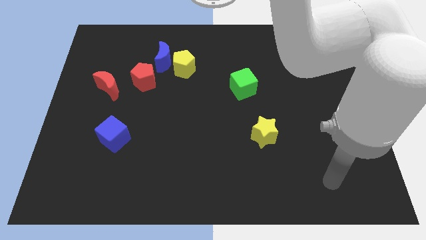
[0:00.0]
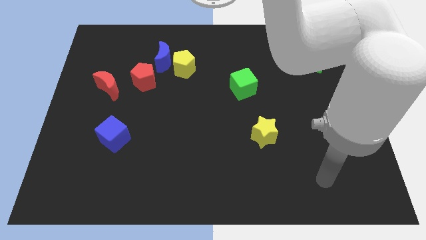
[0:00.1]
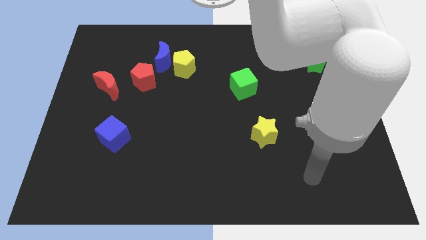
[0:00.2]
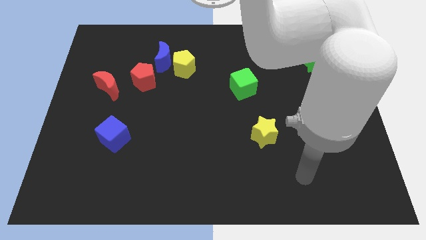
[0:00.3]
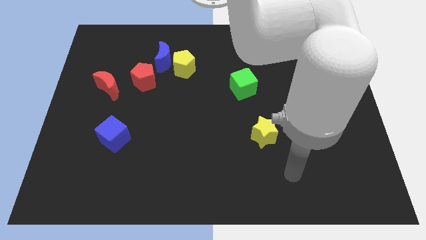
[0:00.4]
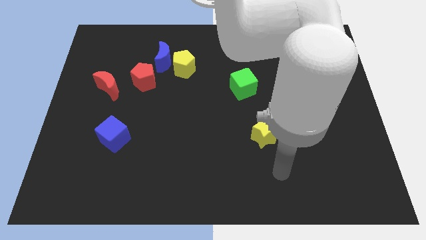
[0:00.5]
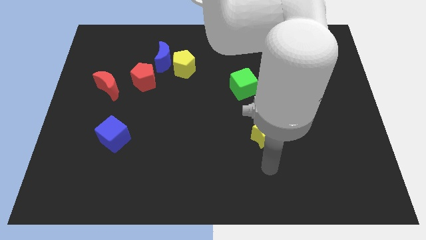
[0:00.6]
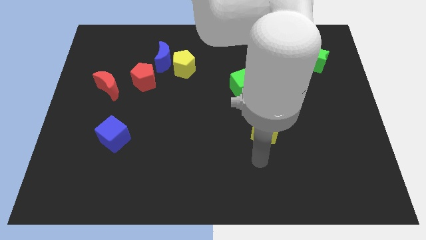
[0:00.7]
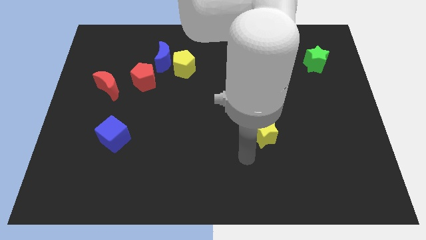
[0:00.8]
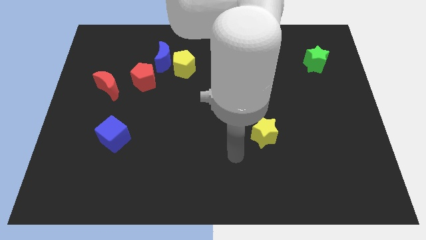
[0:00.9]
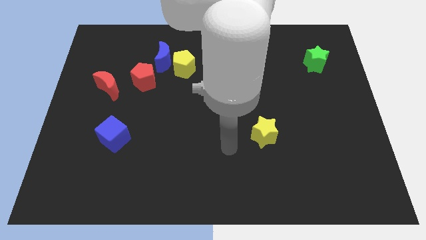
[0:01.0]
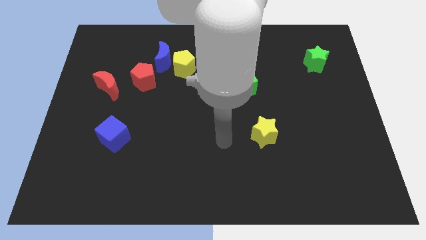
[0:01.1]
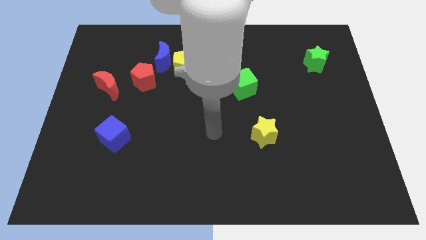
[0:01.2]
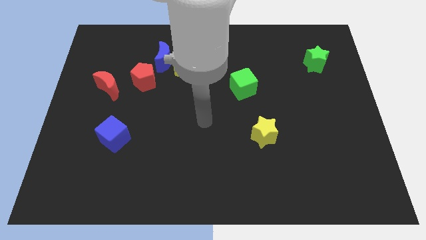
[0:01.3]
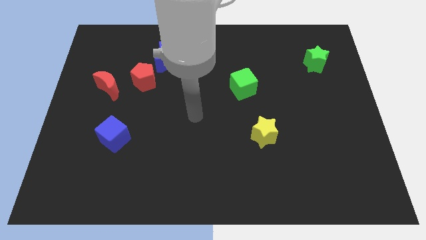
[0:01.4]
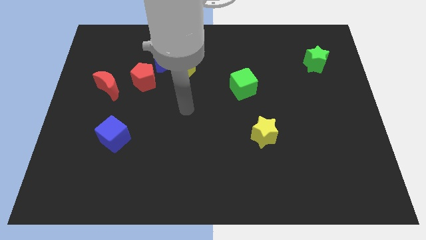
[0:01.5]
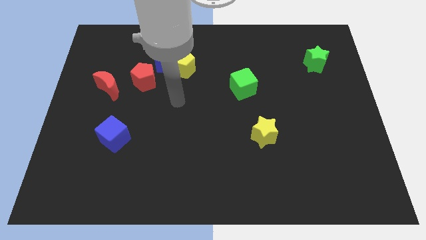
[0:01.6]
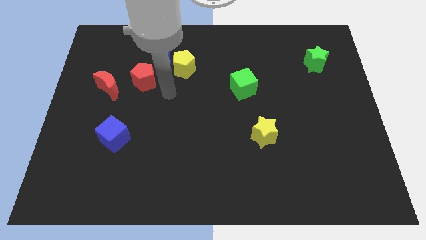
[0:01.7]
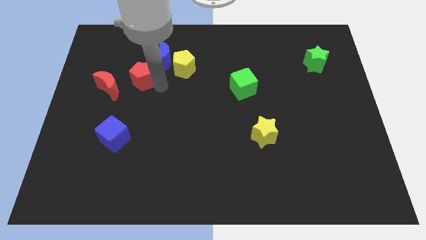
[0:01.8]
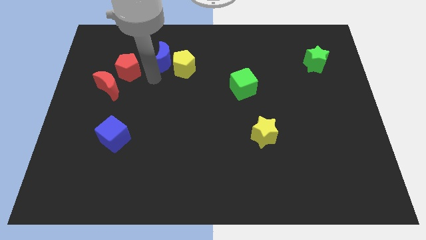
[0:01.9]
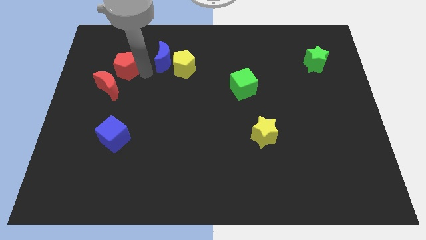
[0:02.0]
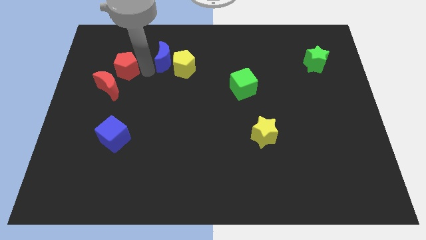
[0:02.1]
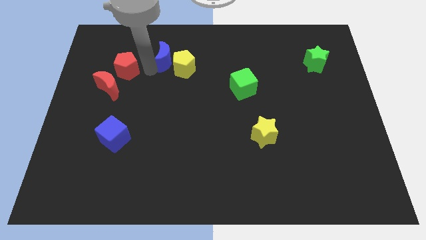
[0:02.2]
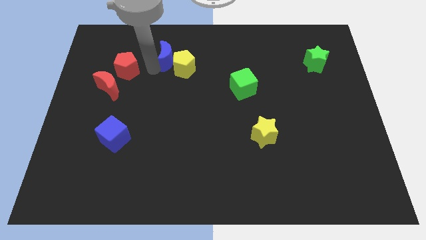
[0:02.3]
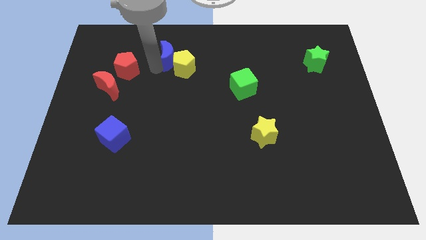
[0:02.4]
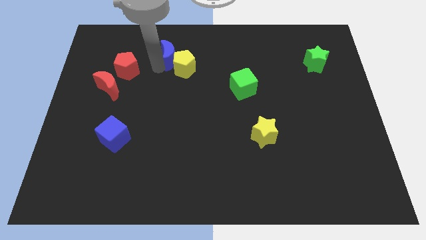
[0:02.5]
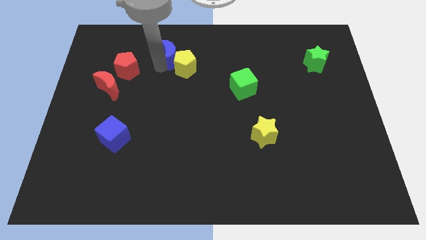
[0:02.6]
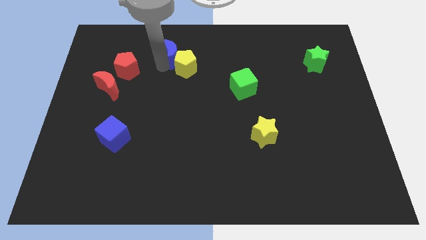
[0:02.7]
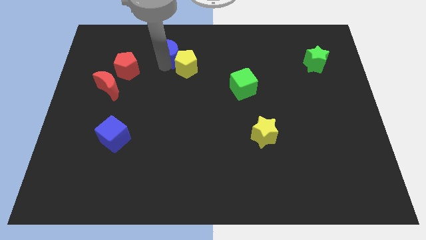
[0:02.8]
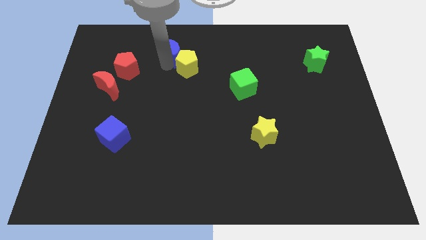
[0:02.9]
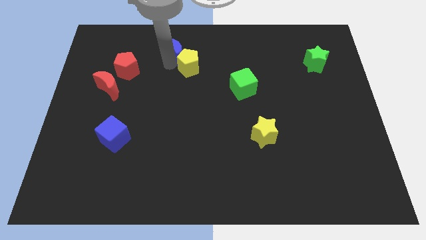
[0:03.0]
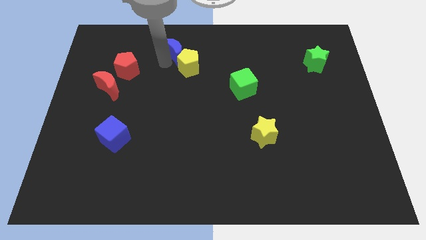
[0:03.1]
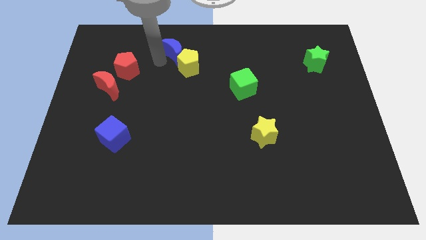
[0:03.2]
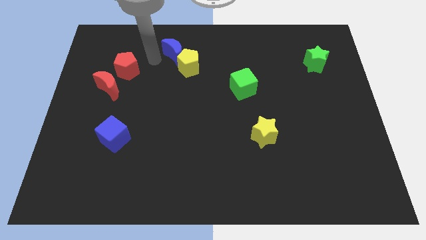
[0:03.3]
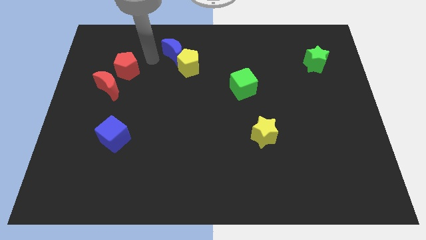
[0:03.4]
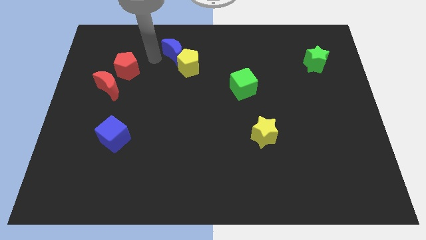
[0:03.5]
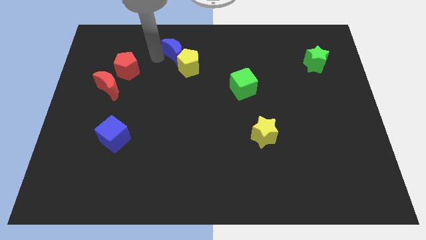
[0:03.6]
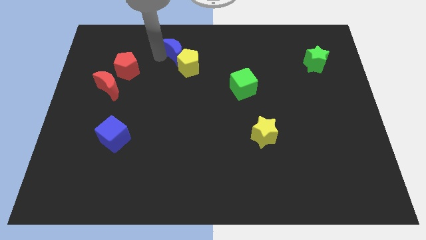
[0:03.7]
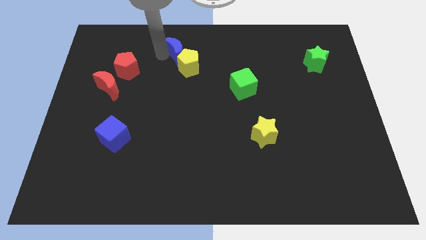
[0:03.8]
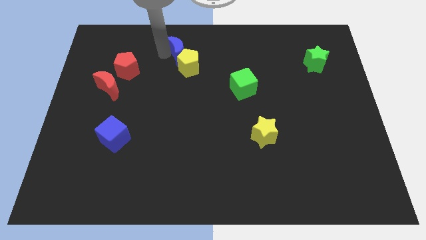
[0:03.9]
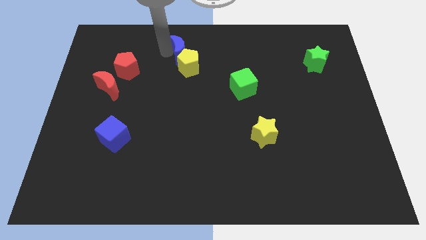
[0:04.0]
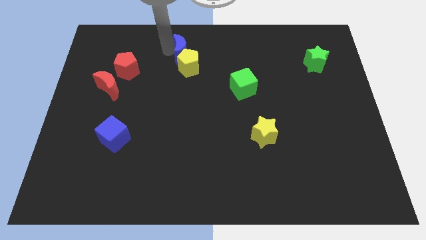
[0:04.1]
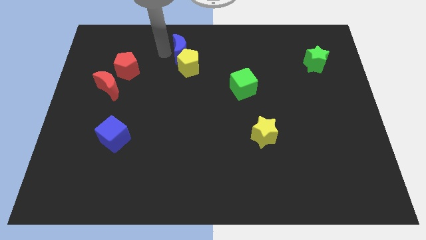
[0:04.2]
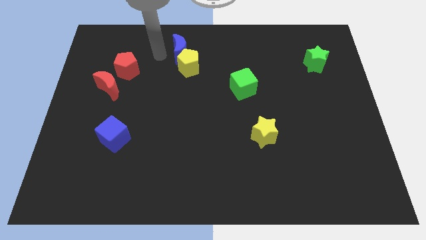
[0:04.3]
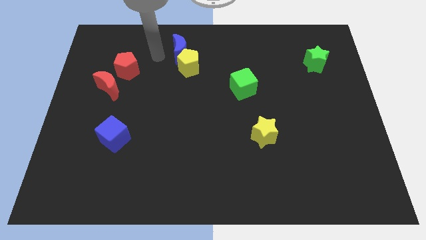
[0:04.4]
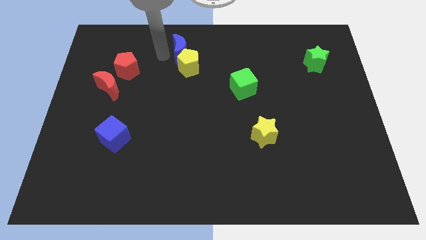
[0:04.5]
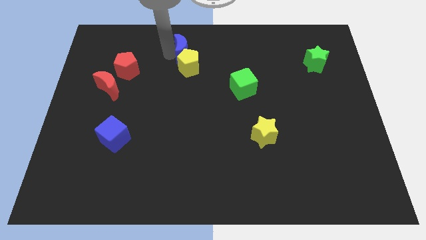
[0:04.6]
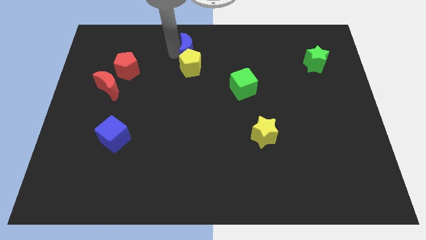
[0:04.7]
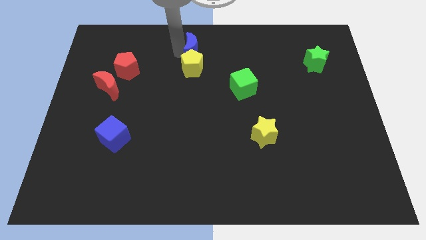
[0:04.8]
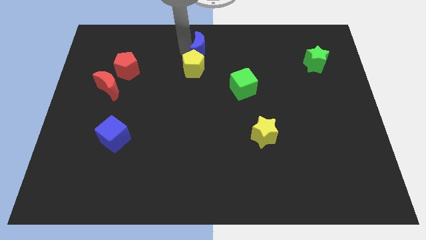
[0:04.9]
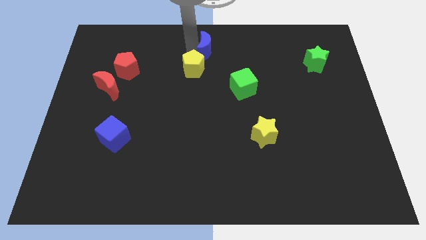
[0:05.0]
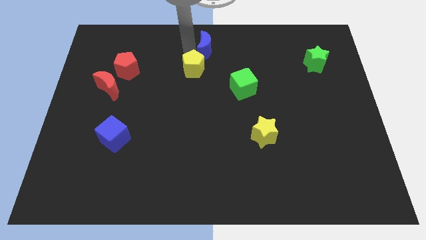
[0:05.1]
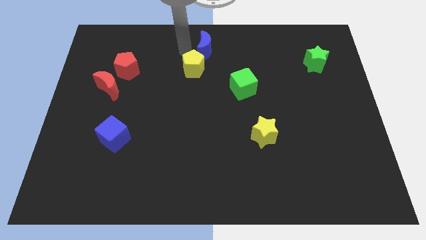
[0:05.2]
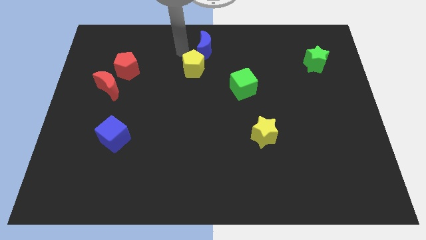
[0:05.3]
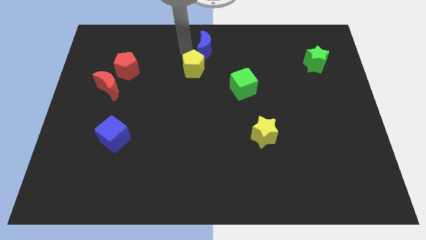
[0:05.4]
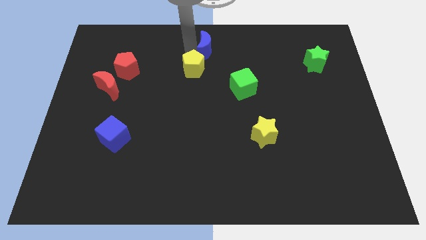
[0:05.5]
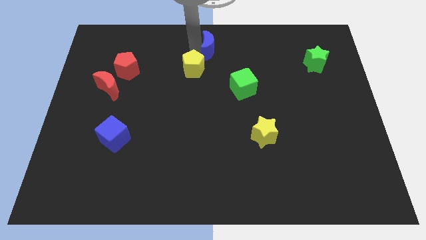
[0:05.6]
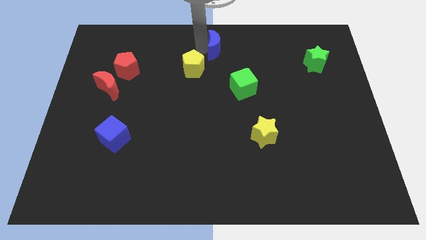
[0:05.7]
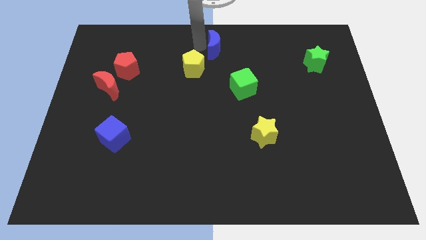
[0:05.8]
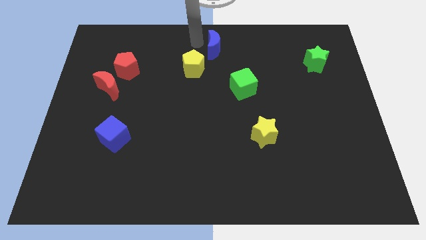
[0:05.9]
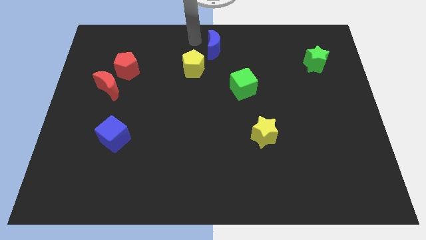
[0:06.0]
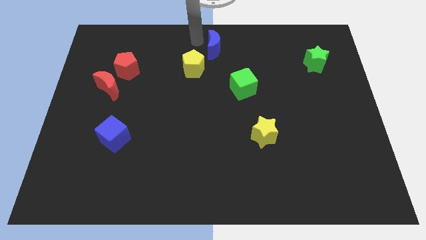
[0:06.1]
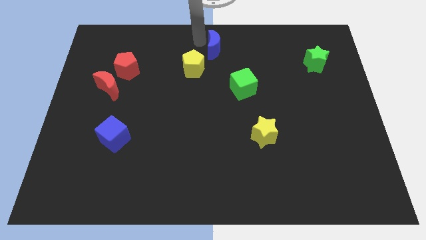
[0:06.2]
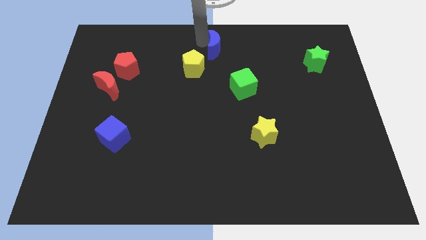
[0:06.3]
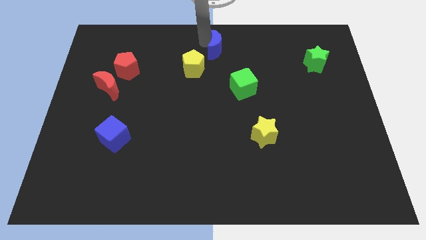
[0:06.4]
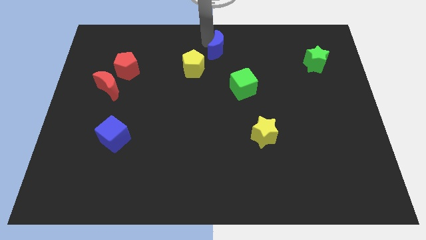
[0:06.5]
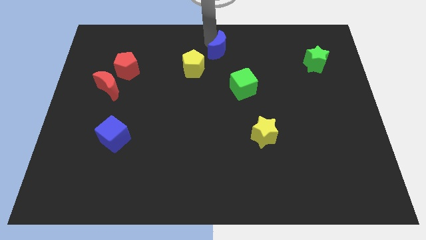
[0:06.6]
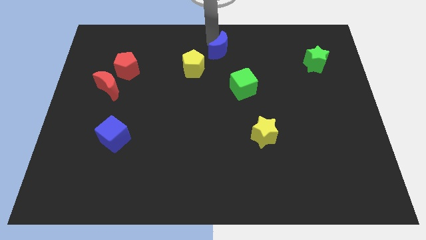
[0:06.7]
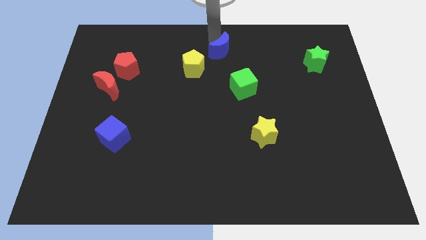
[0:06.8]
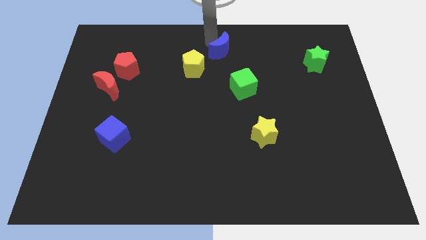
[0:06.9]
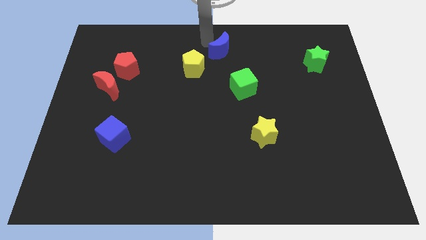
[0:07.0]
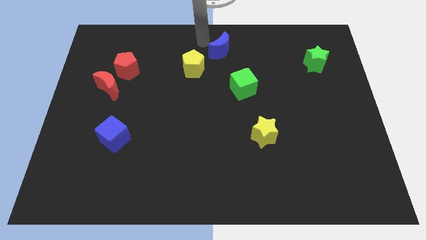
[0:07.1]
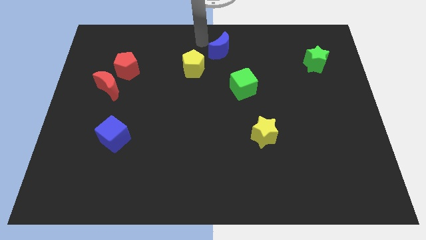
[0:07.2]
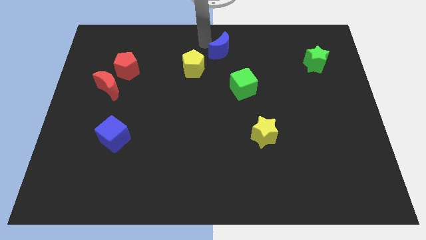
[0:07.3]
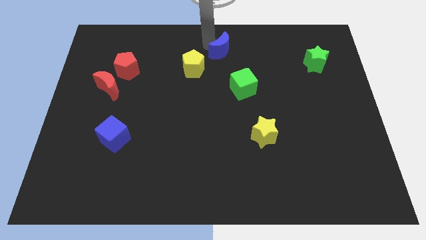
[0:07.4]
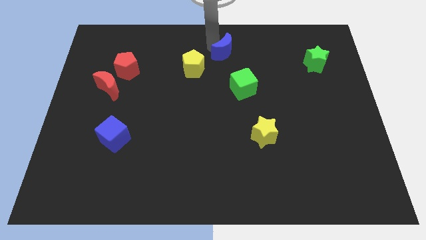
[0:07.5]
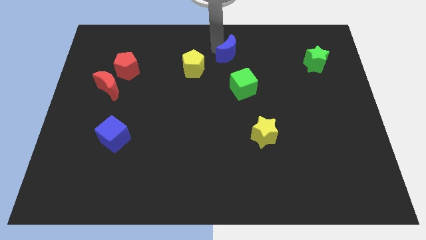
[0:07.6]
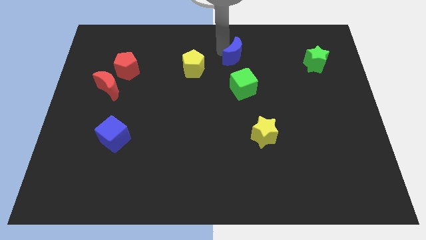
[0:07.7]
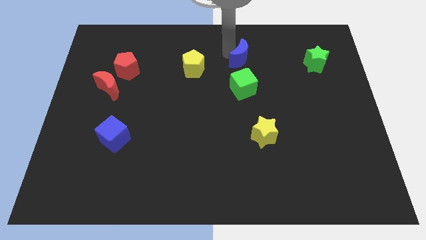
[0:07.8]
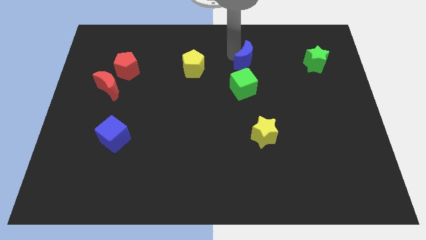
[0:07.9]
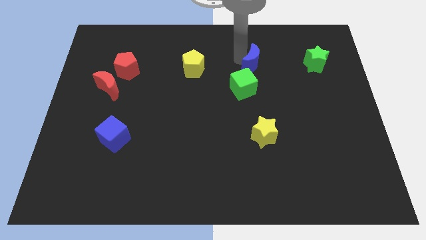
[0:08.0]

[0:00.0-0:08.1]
move the blue moon to the left side of the green star
